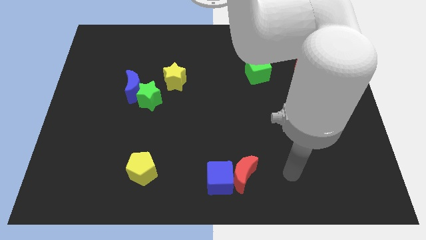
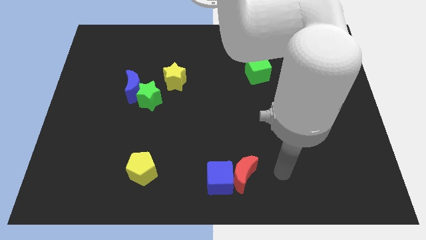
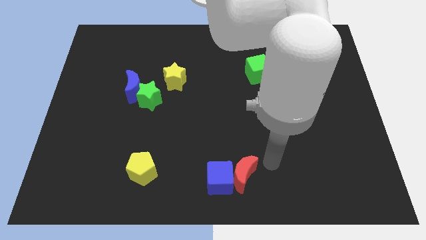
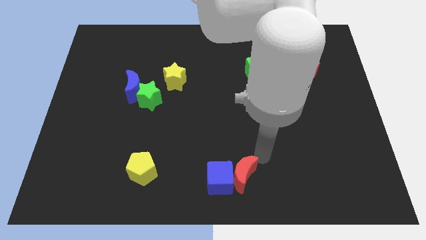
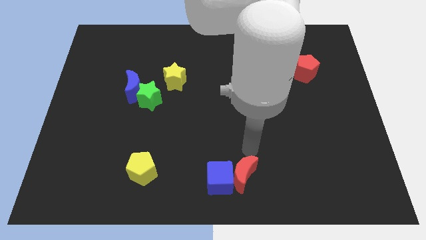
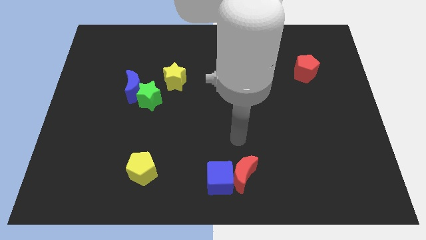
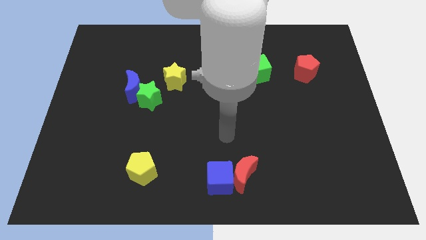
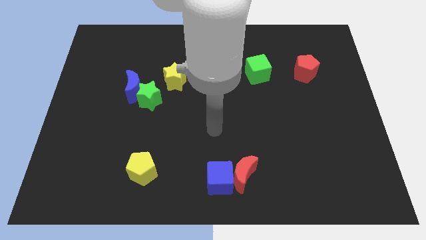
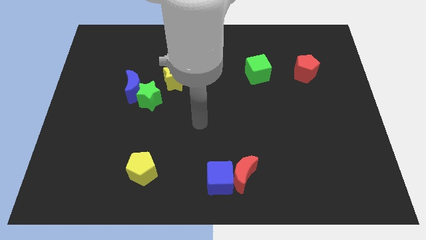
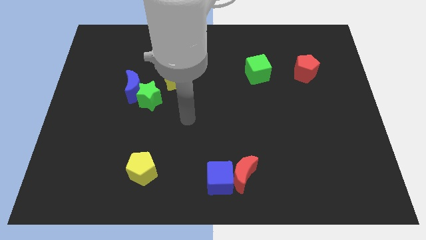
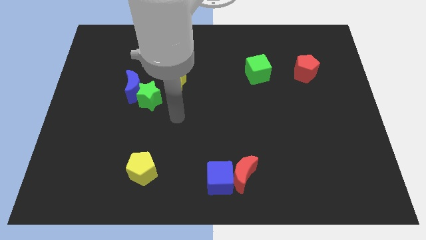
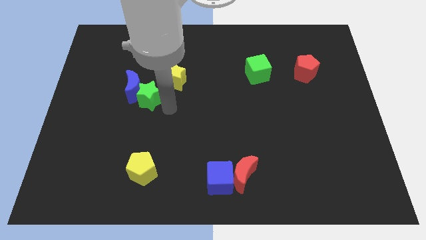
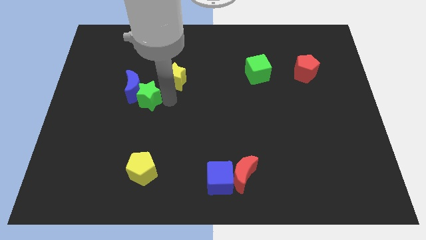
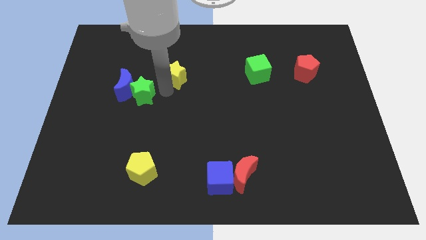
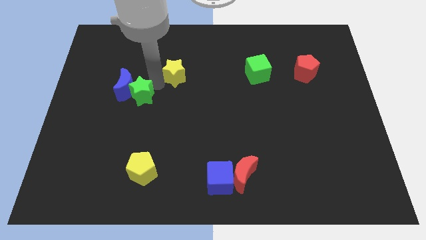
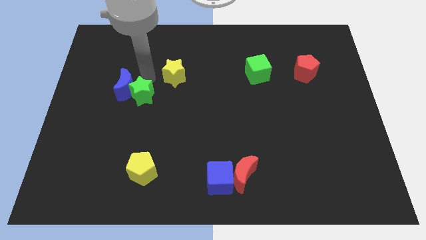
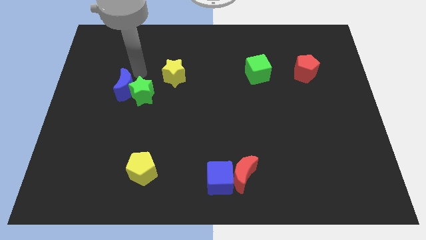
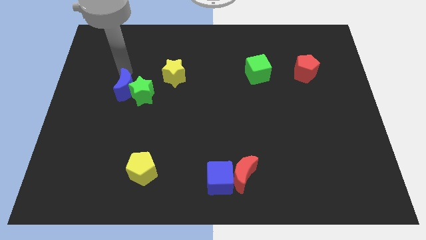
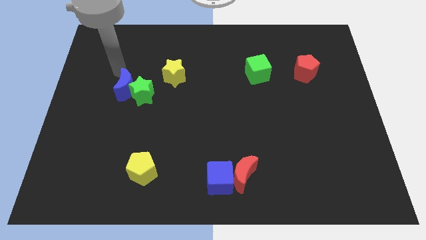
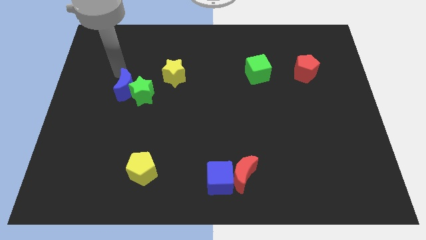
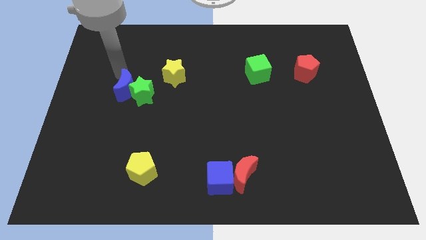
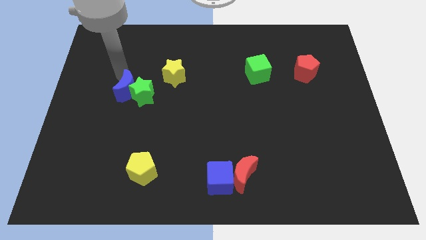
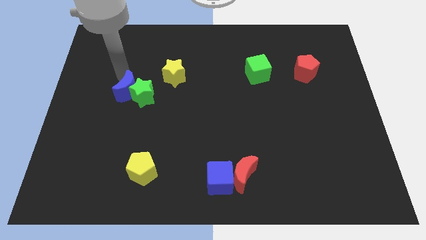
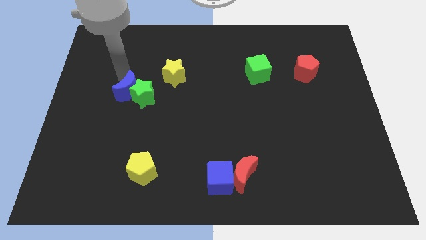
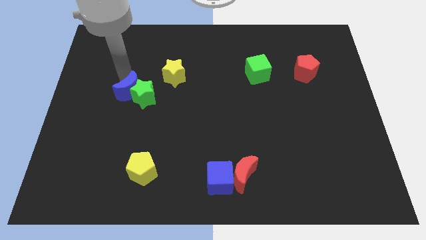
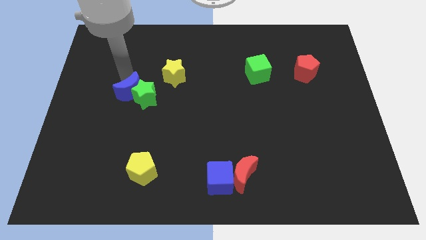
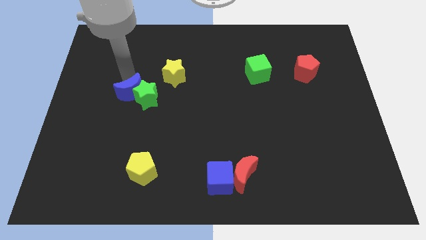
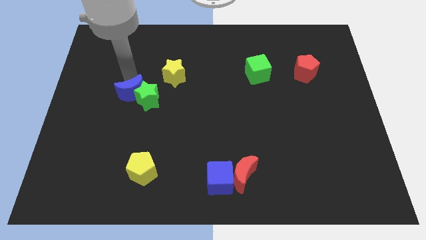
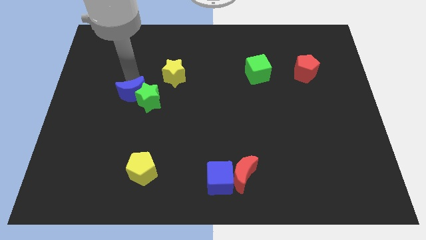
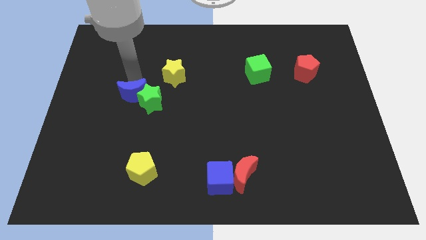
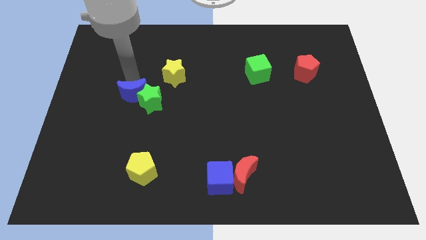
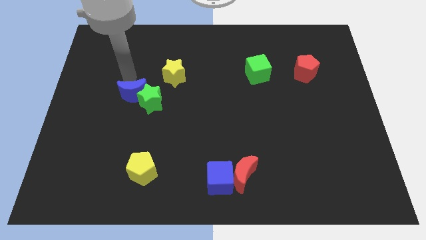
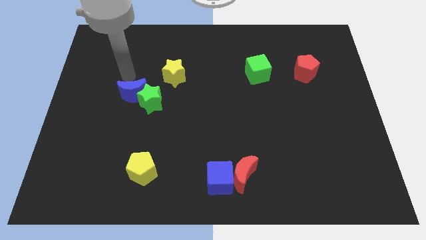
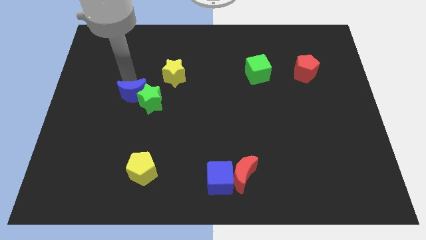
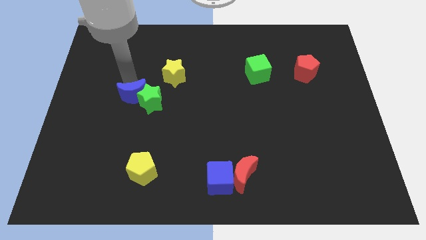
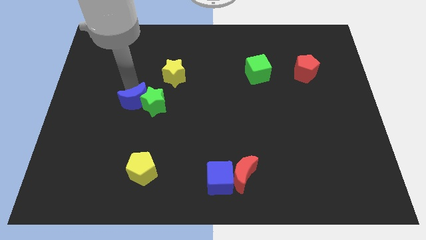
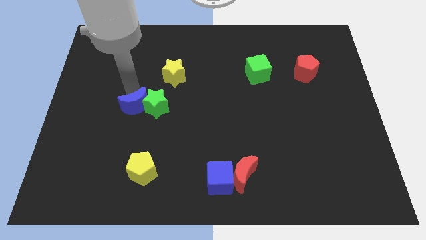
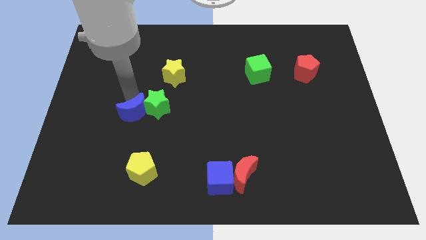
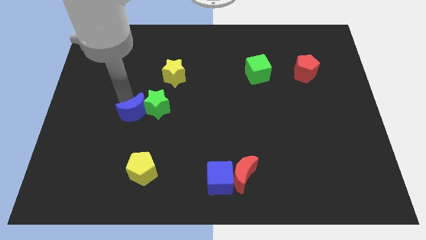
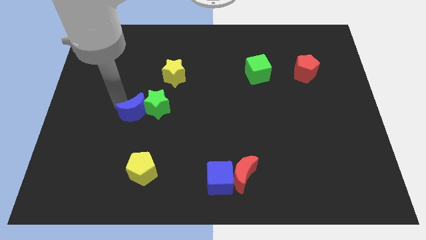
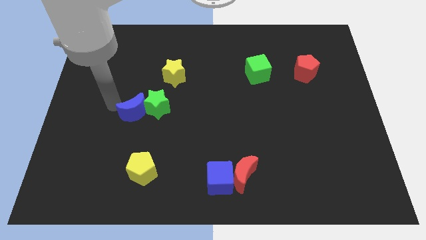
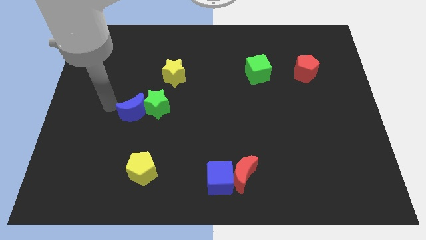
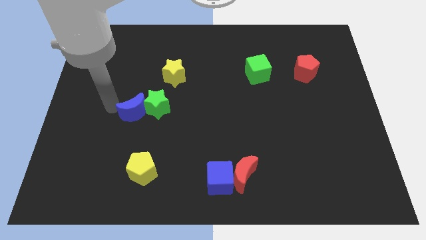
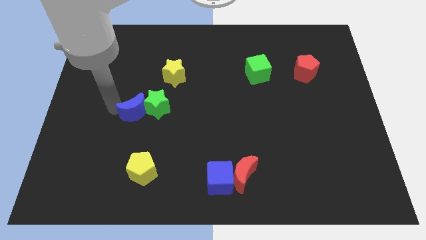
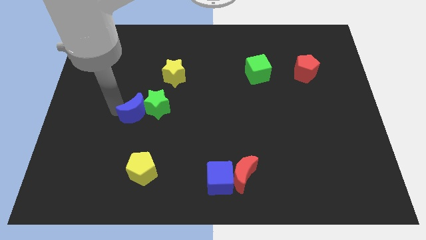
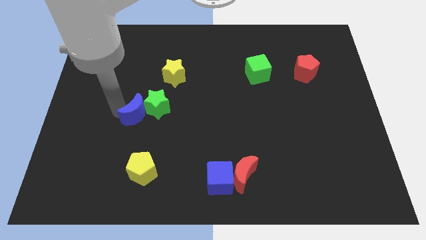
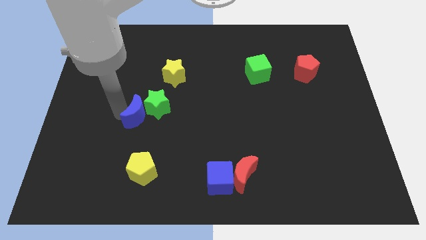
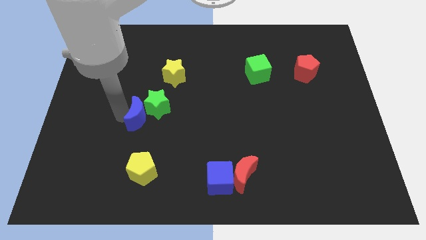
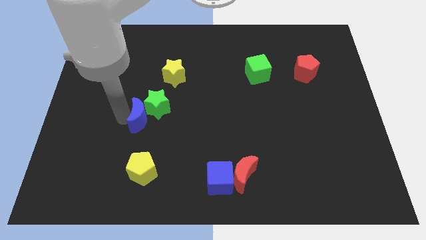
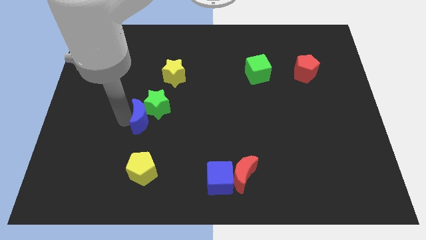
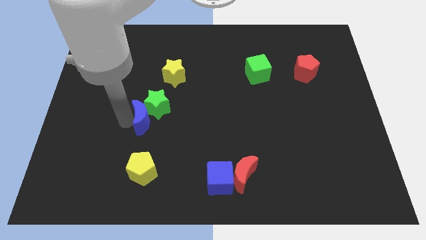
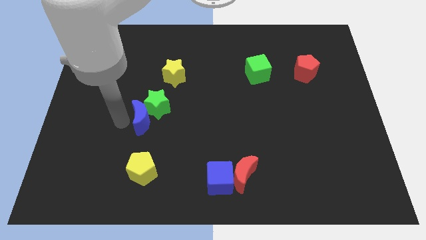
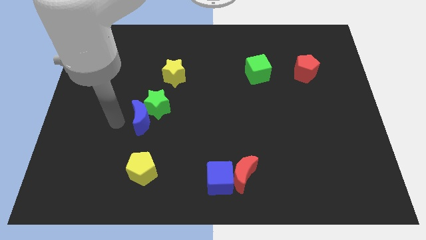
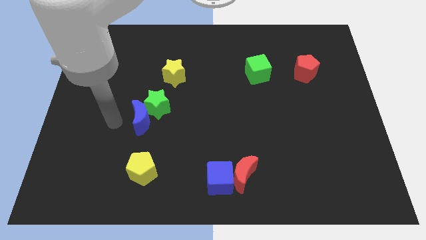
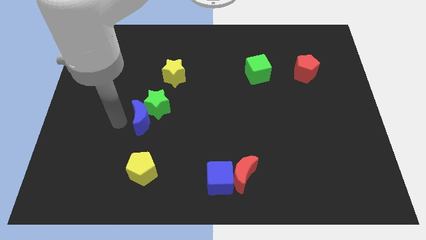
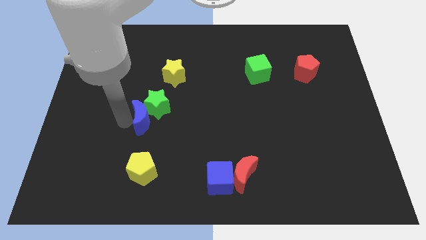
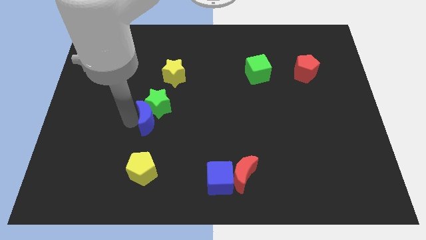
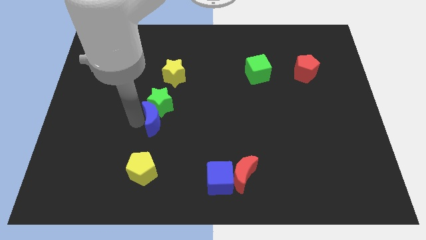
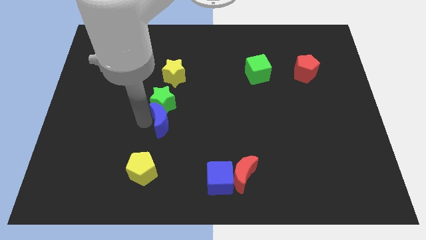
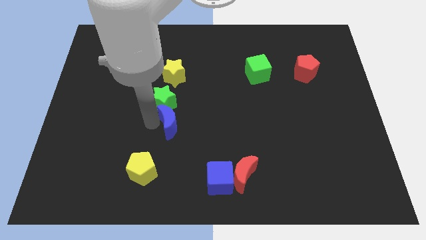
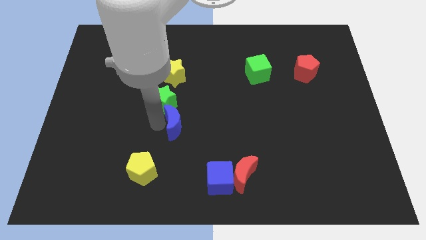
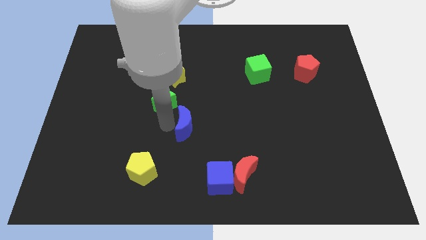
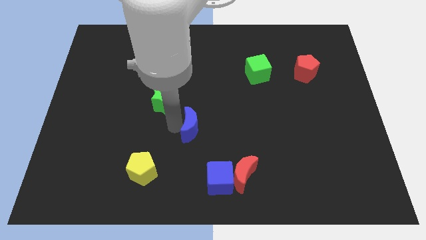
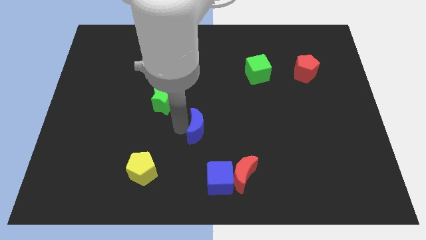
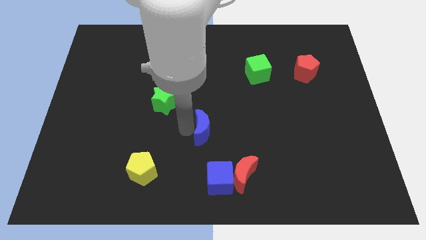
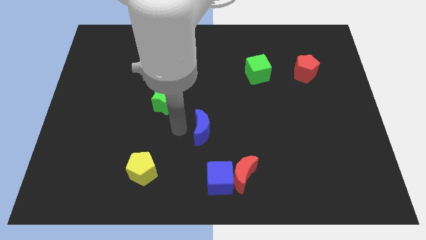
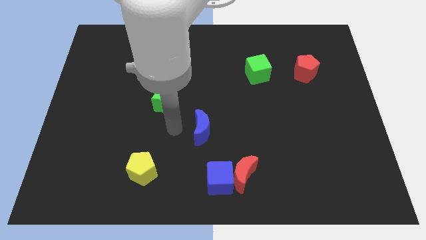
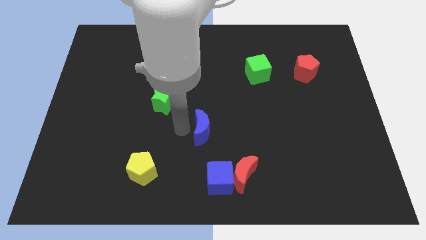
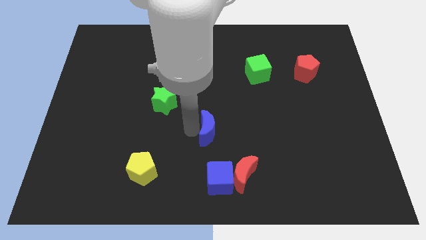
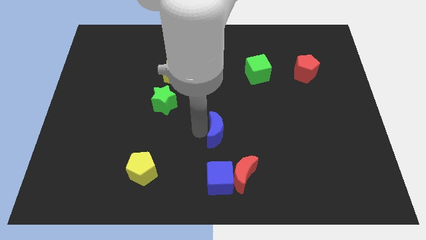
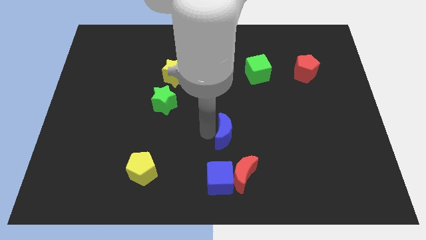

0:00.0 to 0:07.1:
move the blue moon to the top side of the red moon

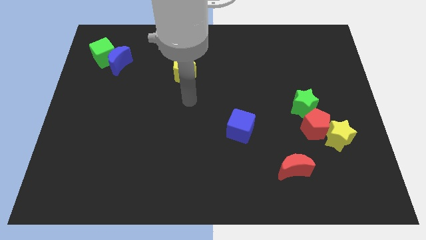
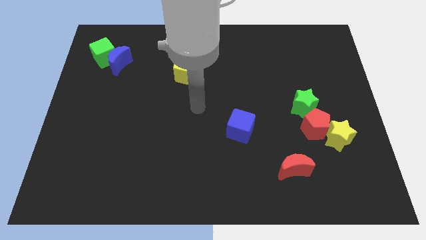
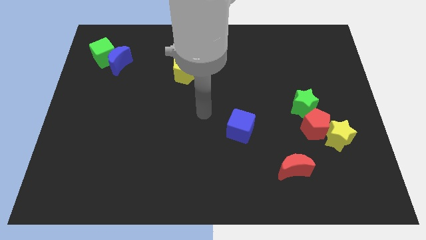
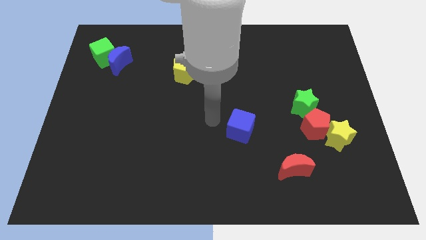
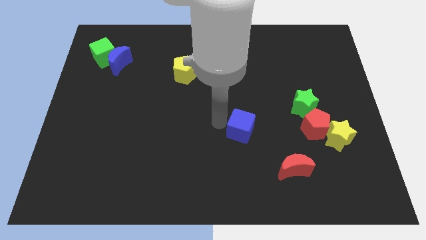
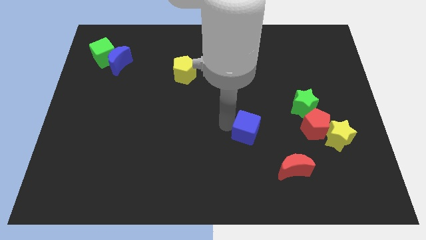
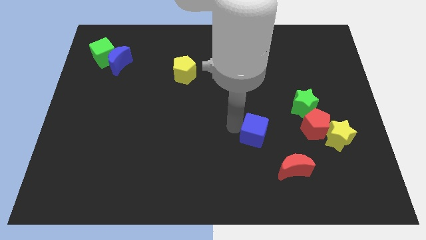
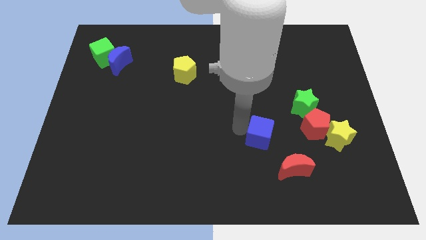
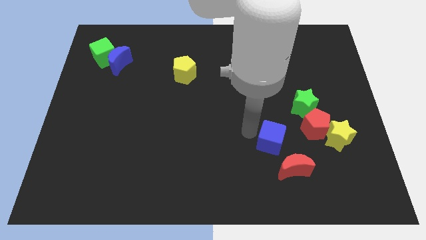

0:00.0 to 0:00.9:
slide the blue cube diagonally down and to the left of the red pentagon
